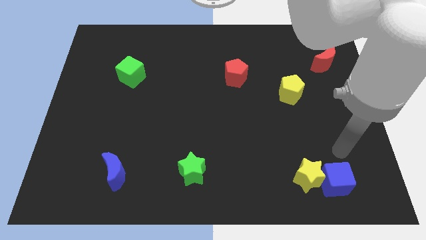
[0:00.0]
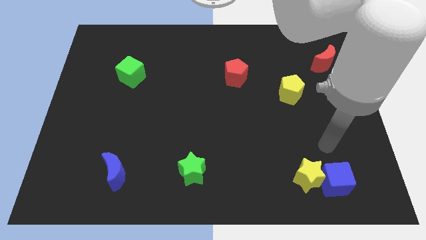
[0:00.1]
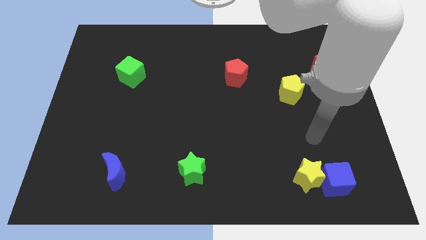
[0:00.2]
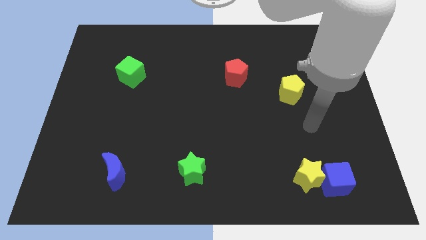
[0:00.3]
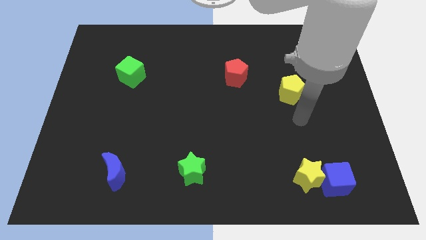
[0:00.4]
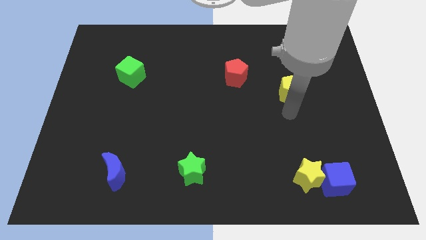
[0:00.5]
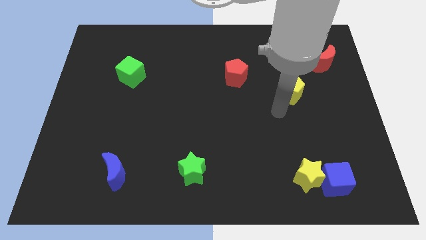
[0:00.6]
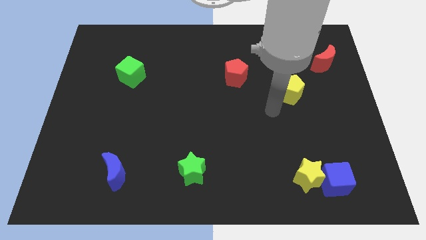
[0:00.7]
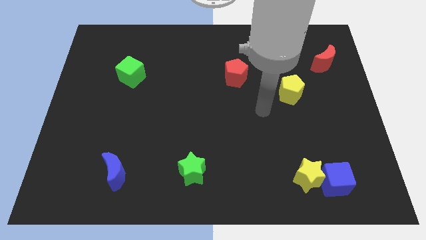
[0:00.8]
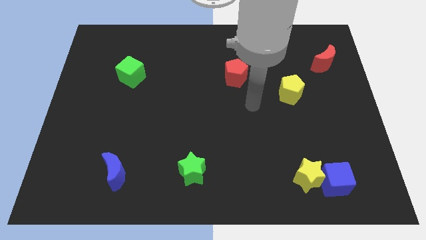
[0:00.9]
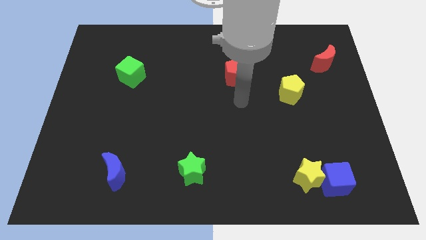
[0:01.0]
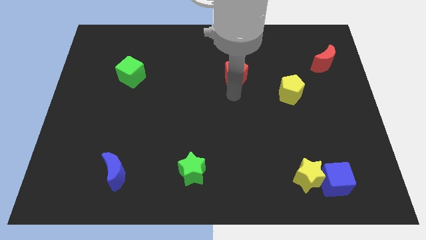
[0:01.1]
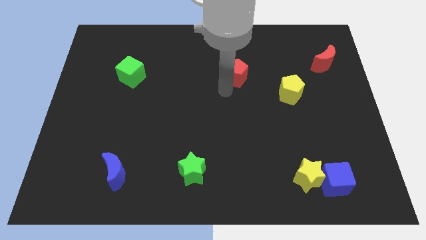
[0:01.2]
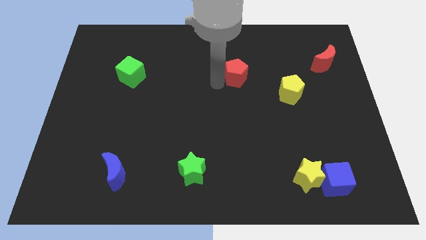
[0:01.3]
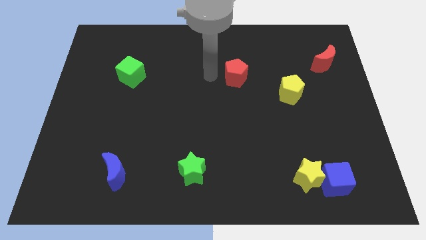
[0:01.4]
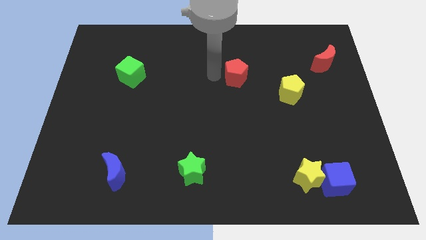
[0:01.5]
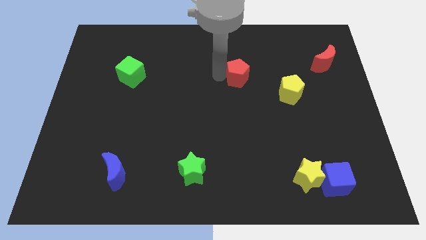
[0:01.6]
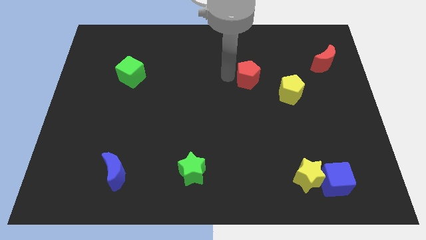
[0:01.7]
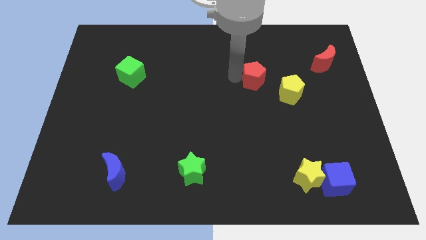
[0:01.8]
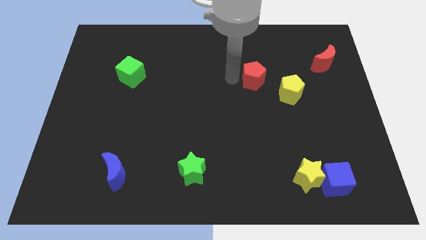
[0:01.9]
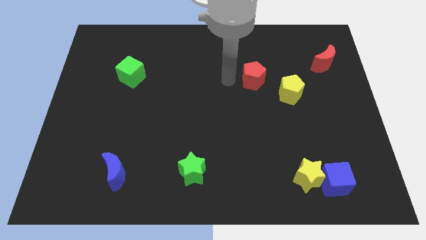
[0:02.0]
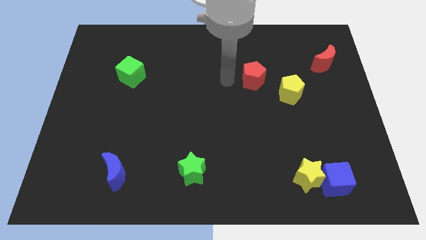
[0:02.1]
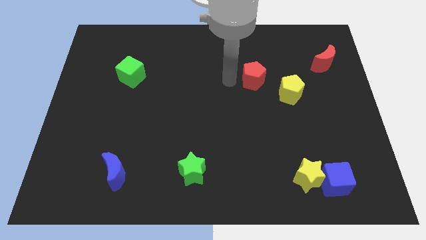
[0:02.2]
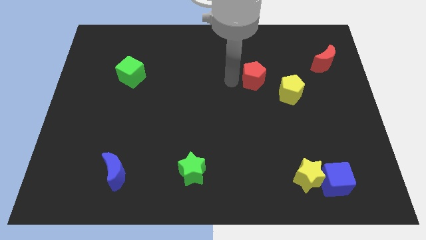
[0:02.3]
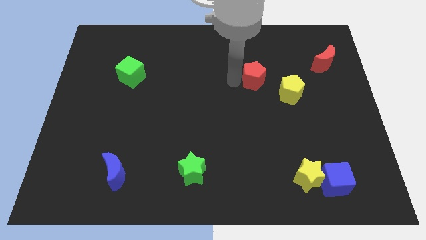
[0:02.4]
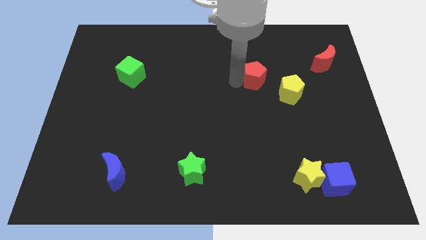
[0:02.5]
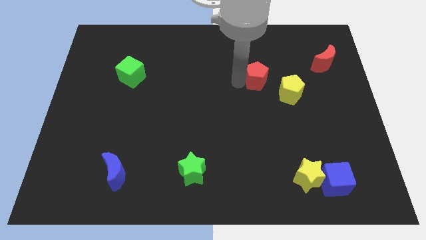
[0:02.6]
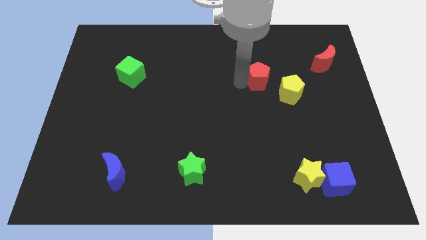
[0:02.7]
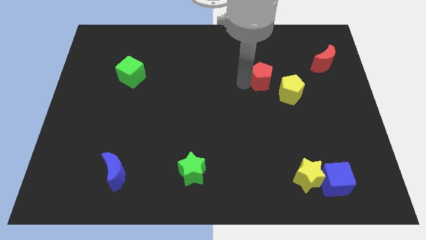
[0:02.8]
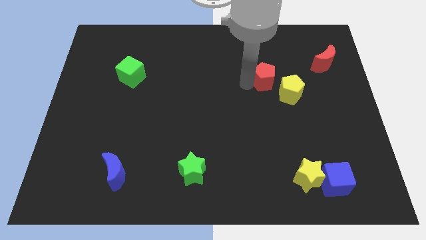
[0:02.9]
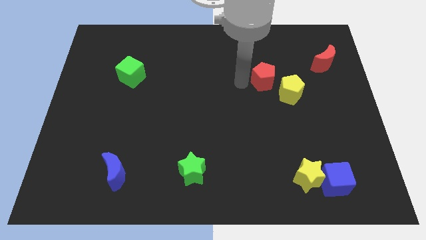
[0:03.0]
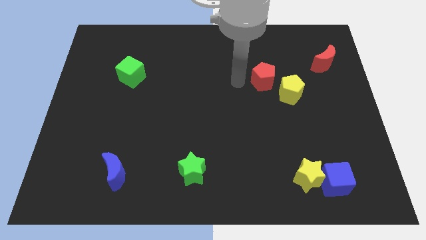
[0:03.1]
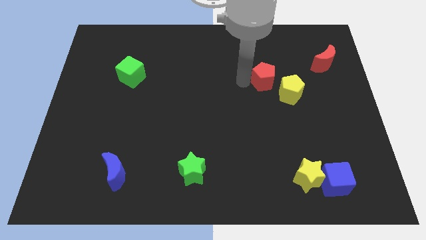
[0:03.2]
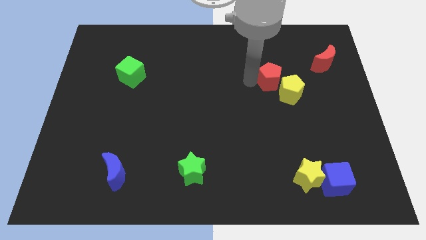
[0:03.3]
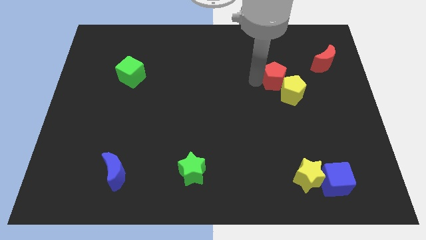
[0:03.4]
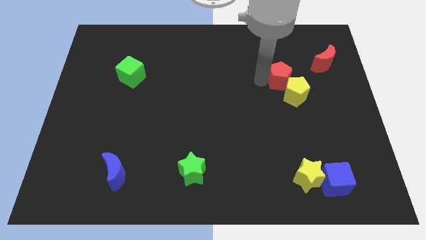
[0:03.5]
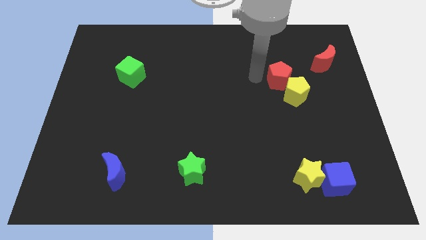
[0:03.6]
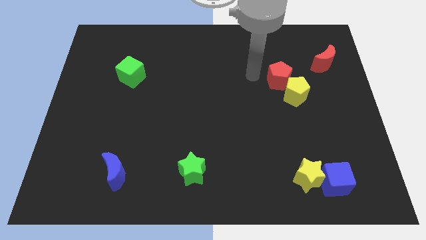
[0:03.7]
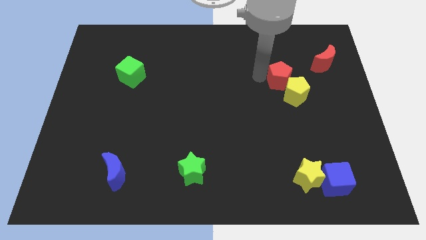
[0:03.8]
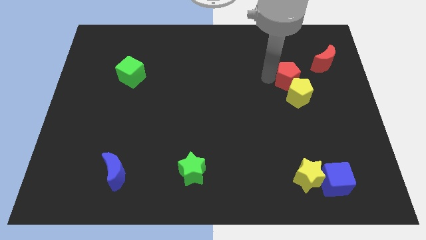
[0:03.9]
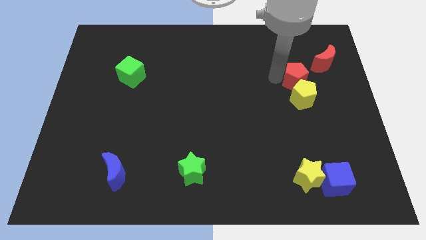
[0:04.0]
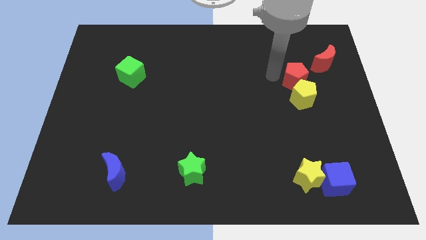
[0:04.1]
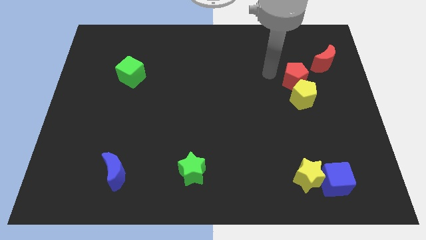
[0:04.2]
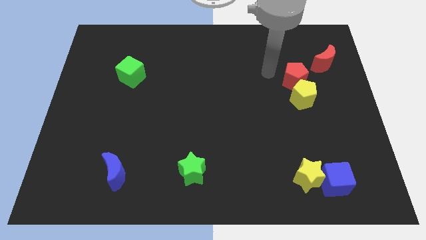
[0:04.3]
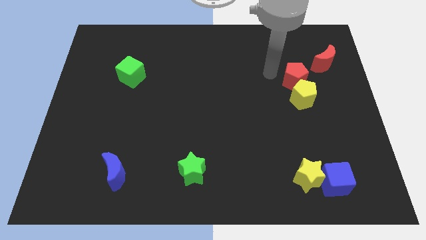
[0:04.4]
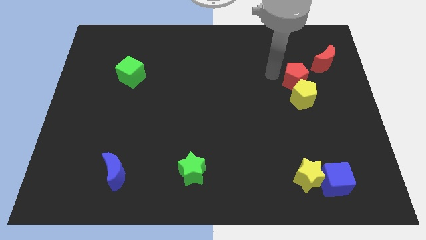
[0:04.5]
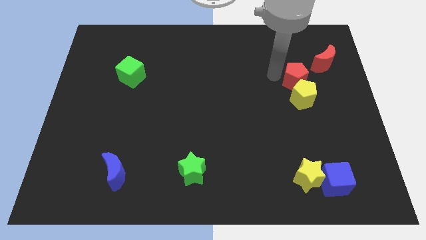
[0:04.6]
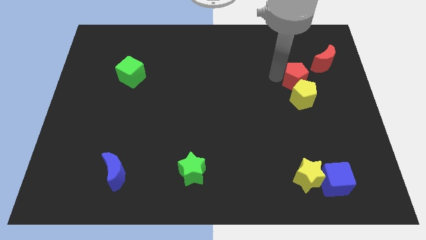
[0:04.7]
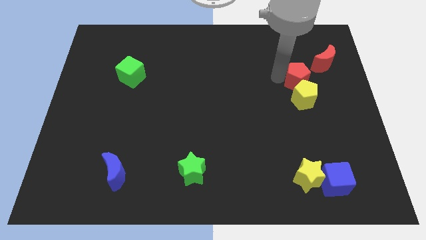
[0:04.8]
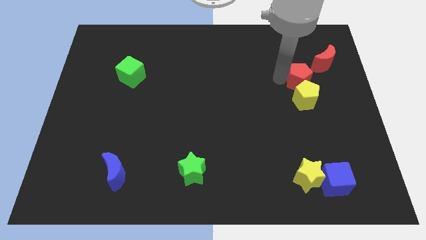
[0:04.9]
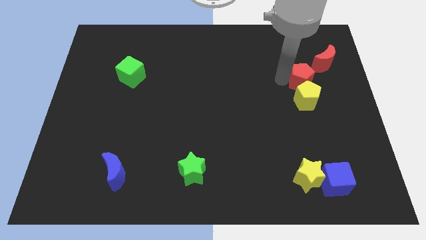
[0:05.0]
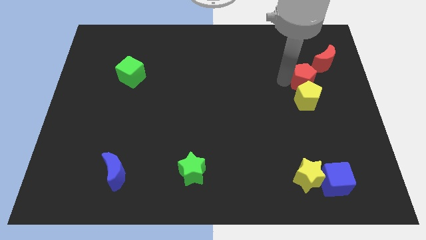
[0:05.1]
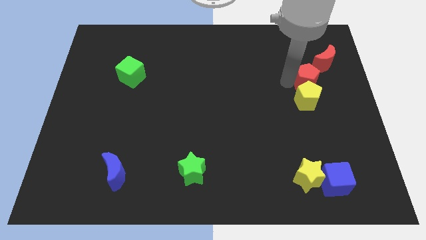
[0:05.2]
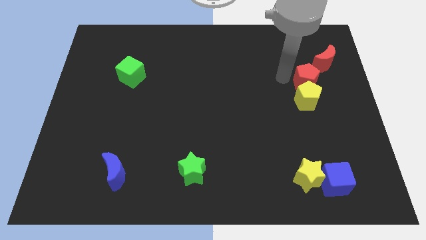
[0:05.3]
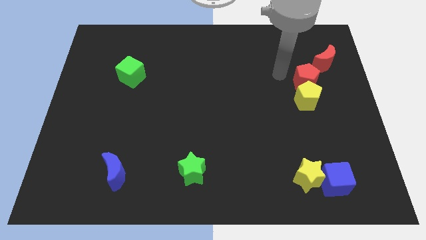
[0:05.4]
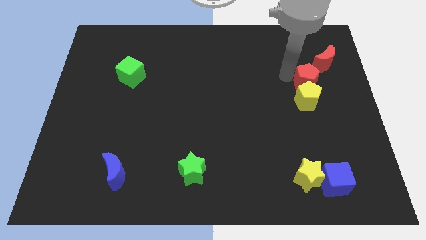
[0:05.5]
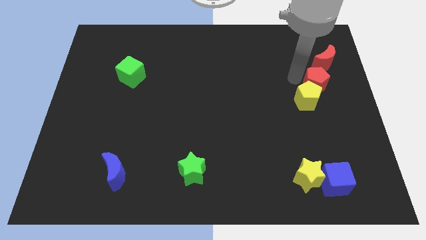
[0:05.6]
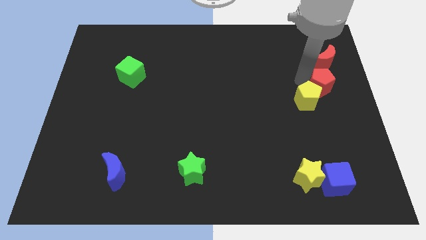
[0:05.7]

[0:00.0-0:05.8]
move the red pentagon to the center right

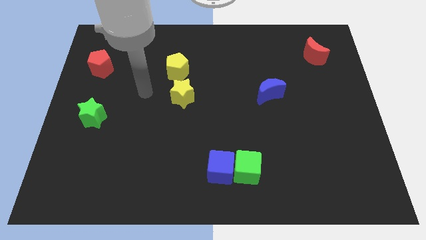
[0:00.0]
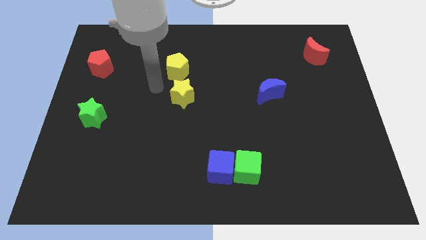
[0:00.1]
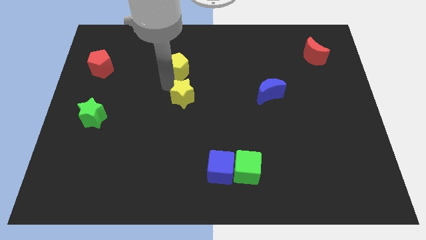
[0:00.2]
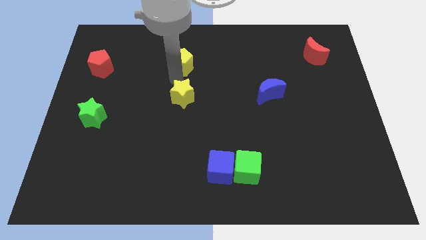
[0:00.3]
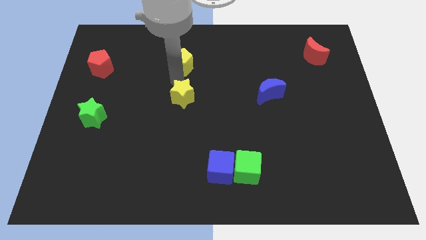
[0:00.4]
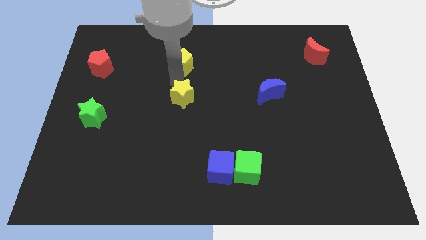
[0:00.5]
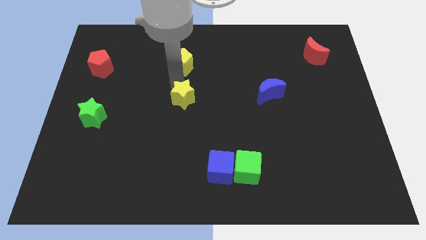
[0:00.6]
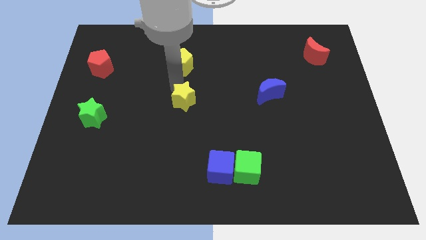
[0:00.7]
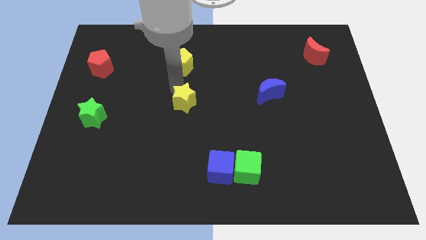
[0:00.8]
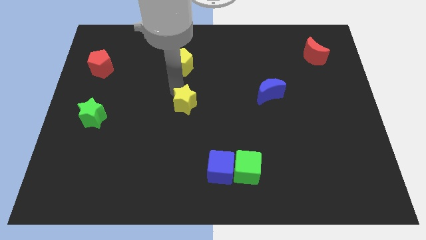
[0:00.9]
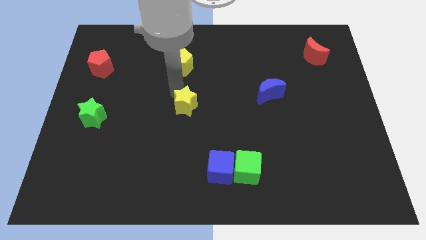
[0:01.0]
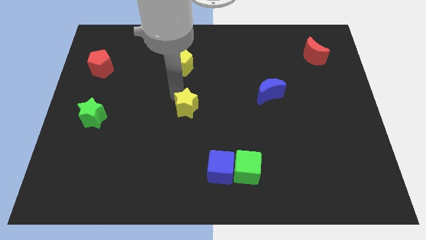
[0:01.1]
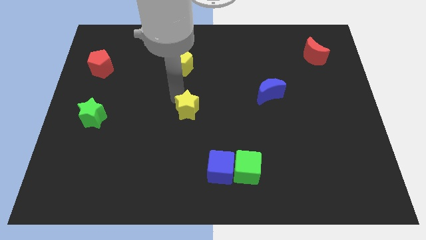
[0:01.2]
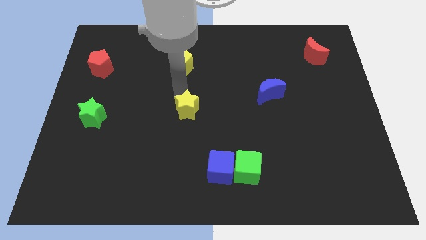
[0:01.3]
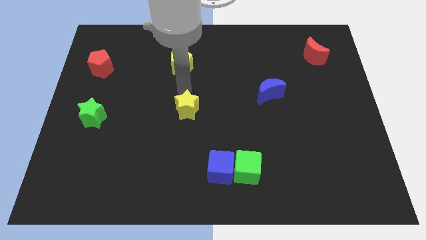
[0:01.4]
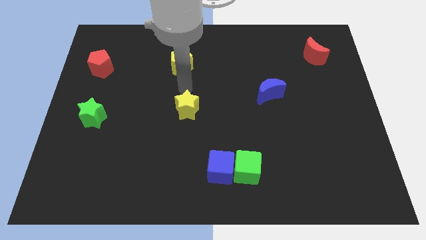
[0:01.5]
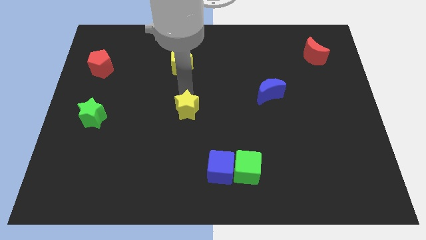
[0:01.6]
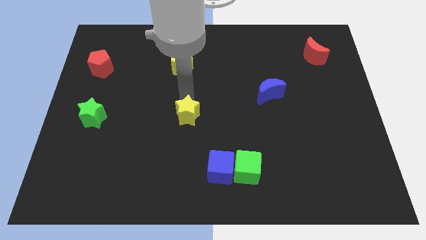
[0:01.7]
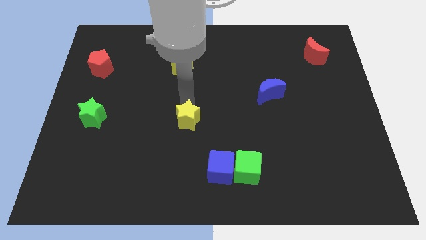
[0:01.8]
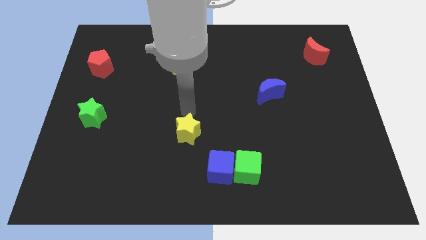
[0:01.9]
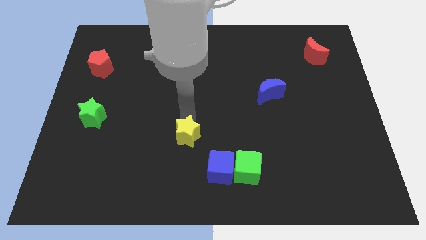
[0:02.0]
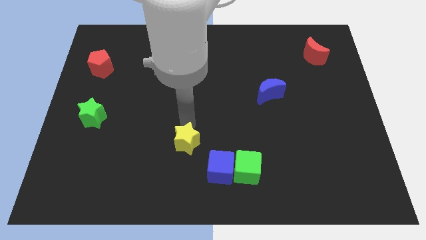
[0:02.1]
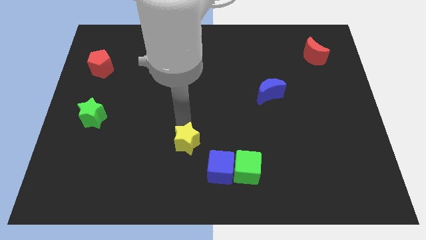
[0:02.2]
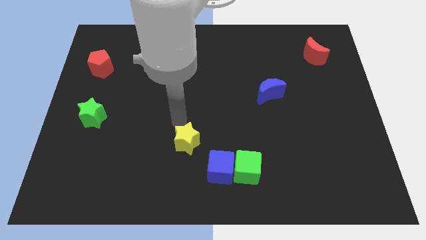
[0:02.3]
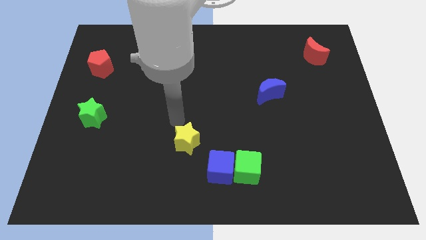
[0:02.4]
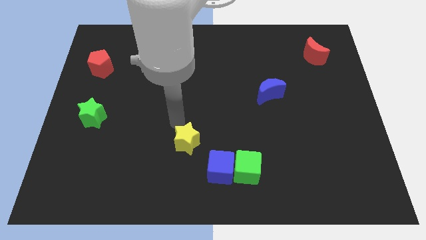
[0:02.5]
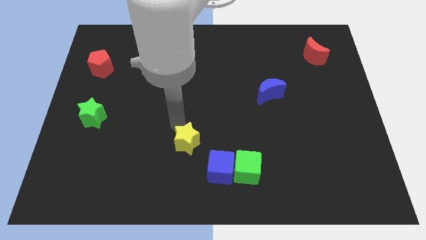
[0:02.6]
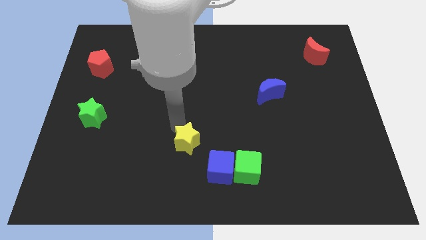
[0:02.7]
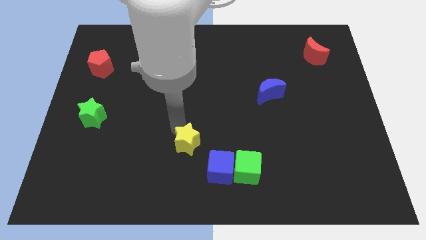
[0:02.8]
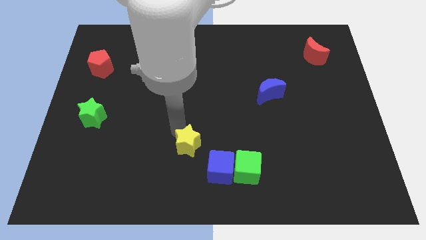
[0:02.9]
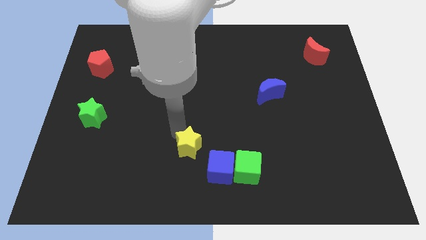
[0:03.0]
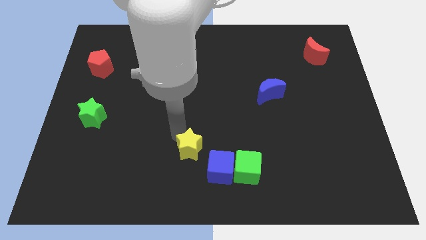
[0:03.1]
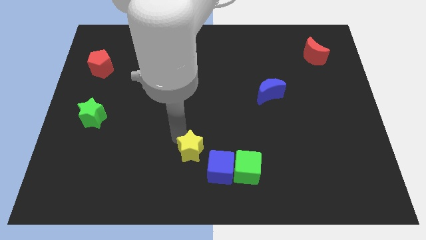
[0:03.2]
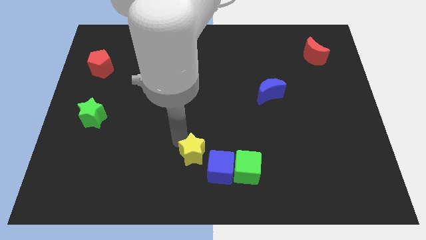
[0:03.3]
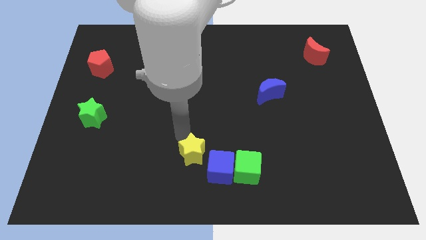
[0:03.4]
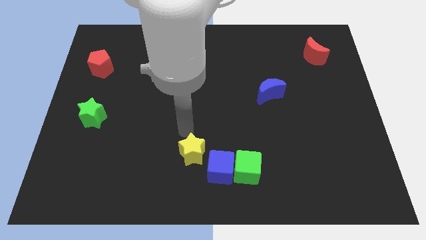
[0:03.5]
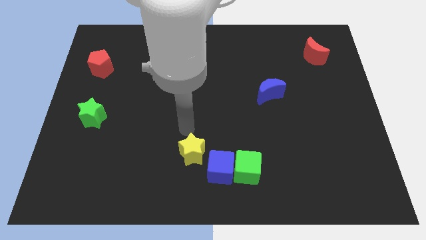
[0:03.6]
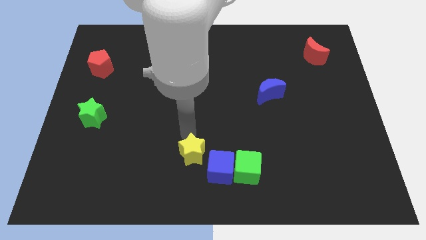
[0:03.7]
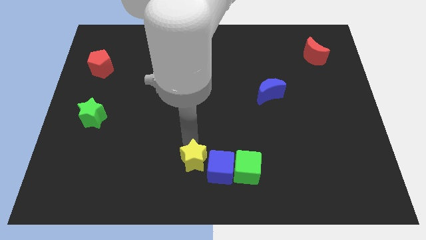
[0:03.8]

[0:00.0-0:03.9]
put the yellow star to the bottom
